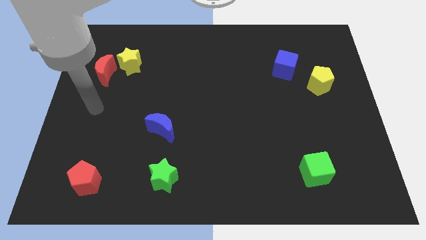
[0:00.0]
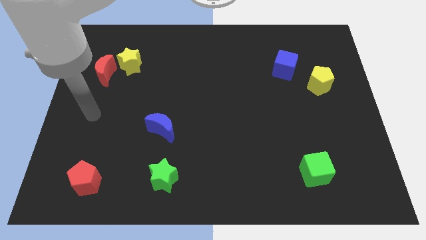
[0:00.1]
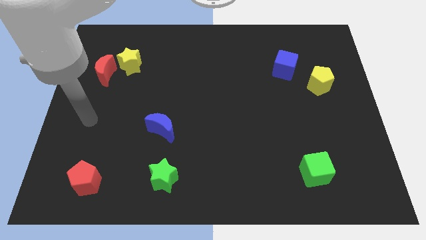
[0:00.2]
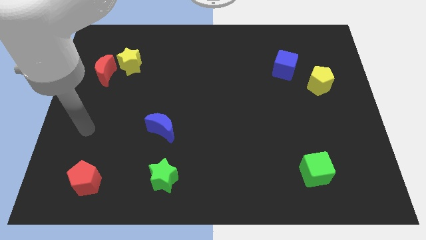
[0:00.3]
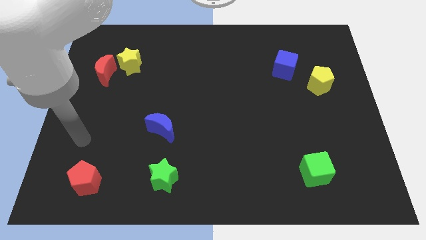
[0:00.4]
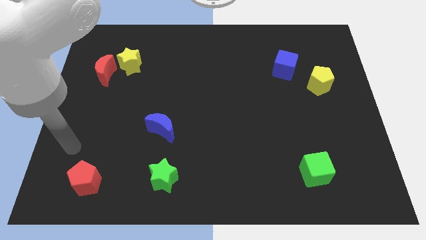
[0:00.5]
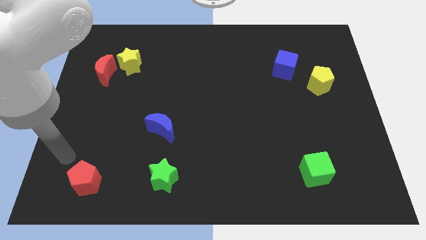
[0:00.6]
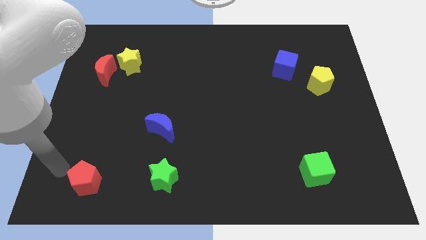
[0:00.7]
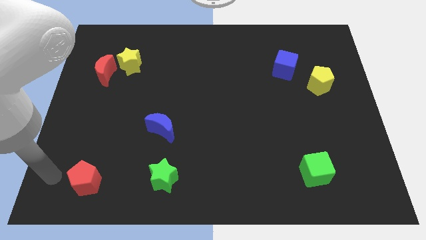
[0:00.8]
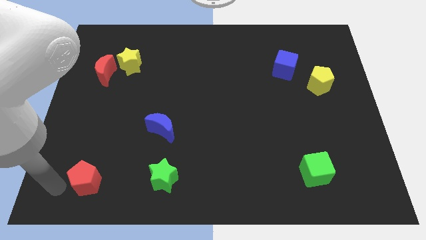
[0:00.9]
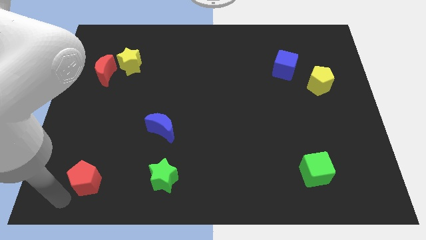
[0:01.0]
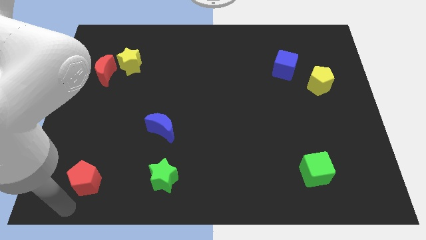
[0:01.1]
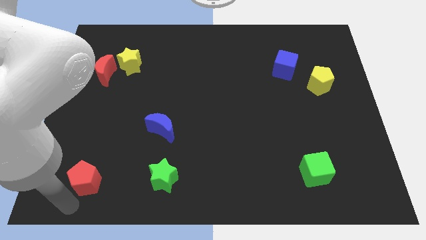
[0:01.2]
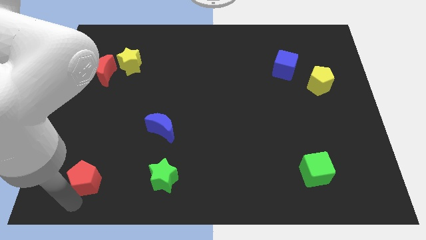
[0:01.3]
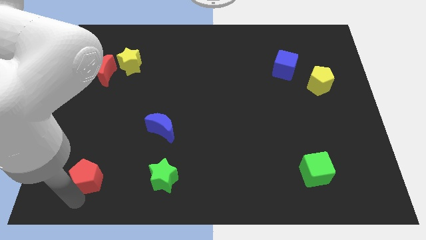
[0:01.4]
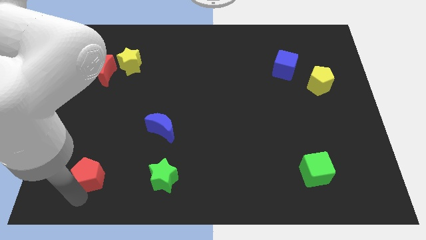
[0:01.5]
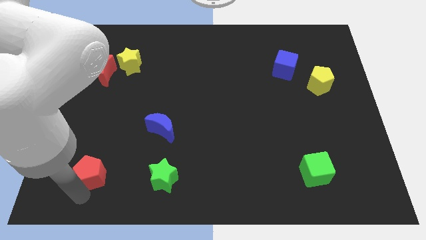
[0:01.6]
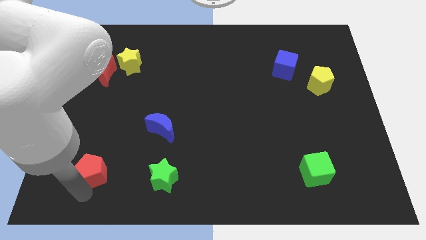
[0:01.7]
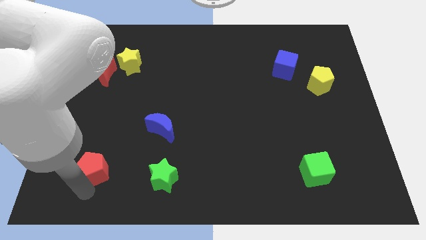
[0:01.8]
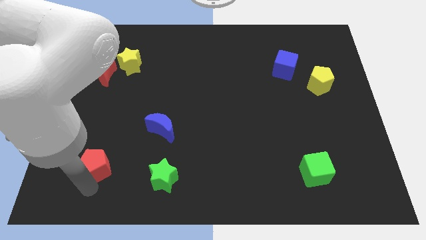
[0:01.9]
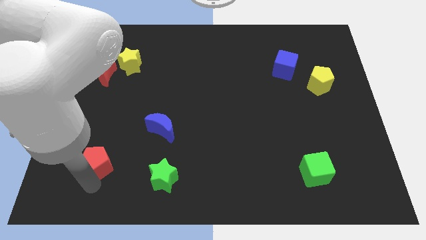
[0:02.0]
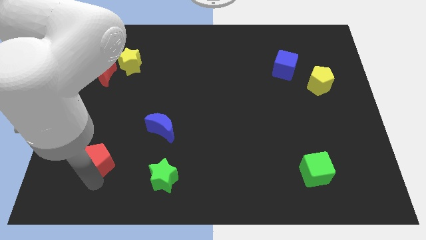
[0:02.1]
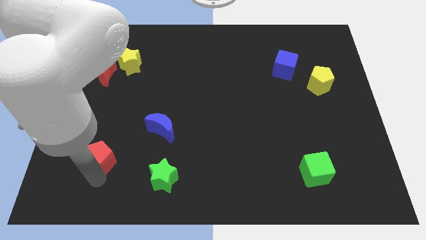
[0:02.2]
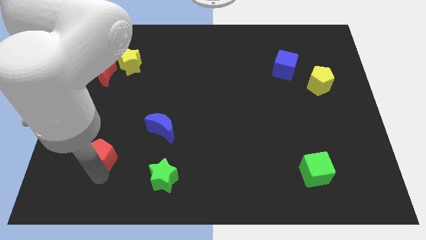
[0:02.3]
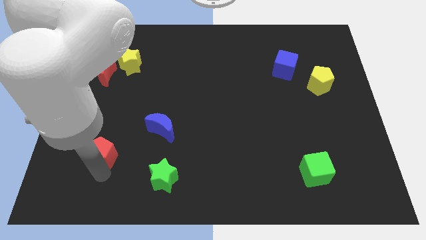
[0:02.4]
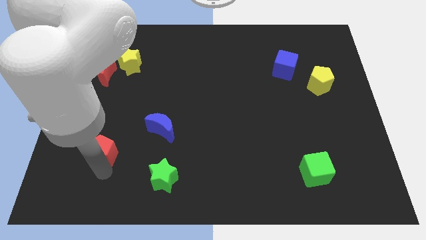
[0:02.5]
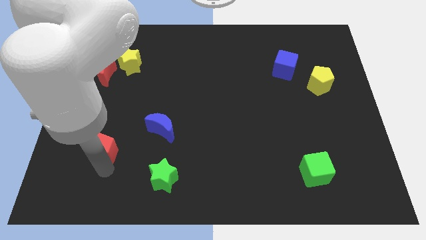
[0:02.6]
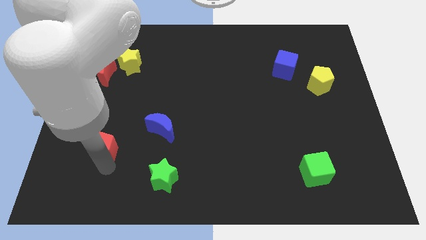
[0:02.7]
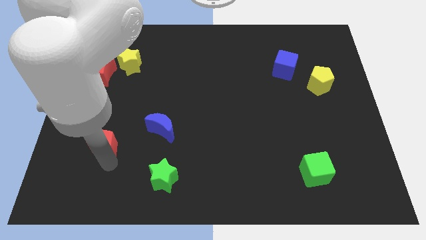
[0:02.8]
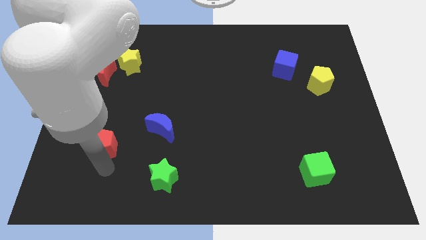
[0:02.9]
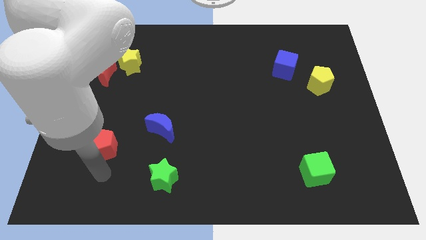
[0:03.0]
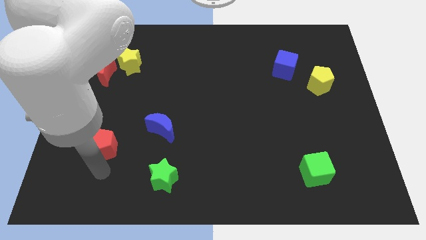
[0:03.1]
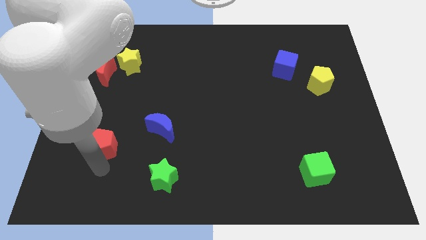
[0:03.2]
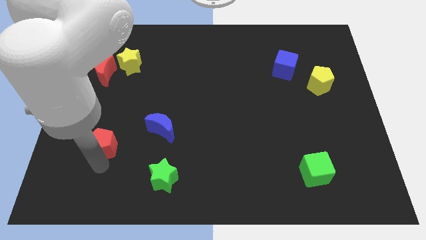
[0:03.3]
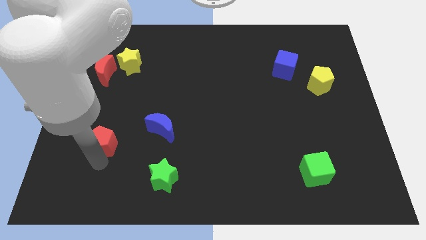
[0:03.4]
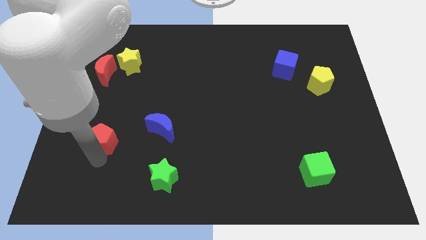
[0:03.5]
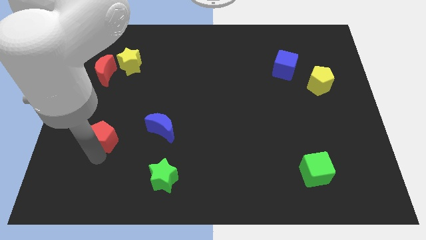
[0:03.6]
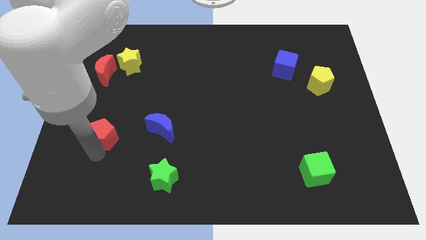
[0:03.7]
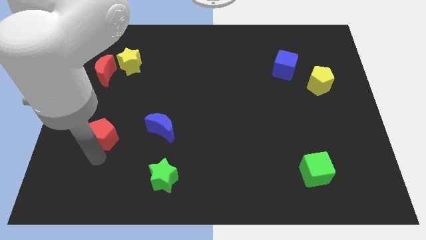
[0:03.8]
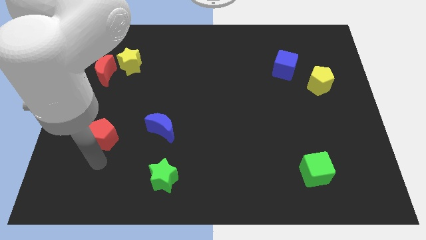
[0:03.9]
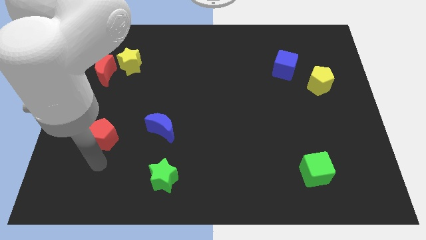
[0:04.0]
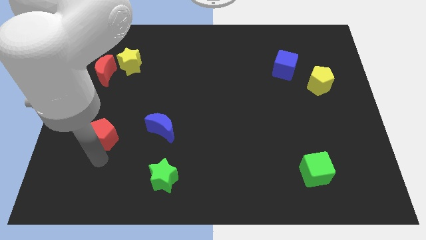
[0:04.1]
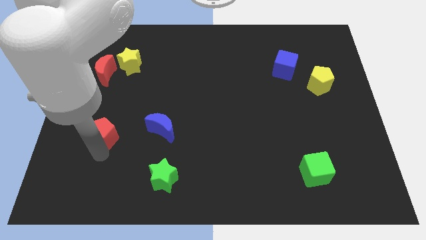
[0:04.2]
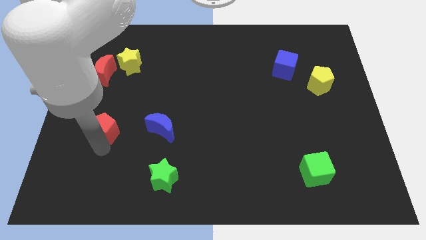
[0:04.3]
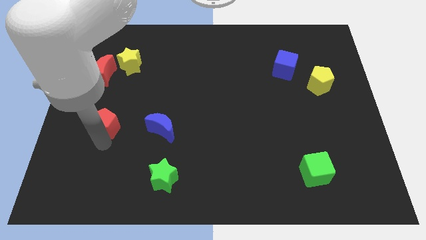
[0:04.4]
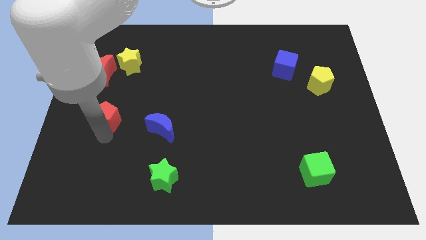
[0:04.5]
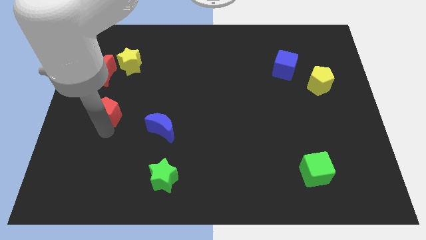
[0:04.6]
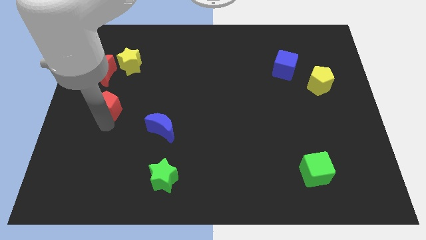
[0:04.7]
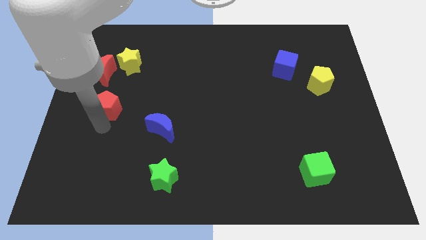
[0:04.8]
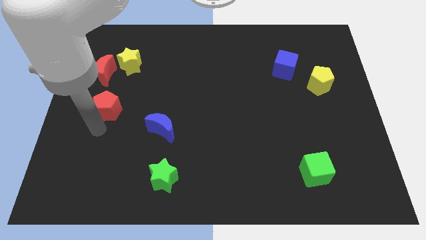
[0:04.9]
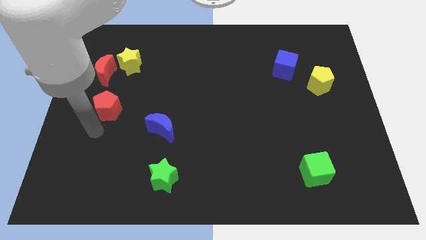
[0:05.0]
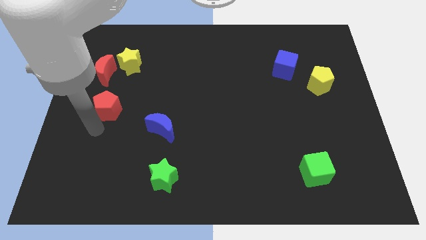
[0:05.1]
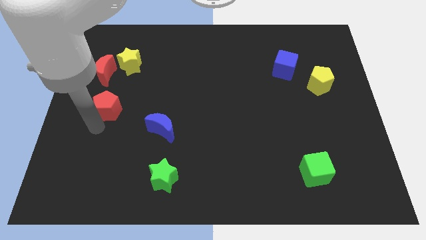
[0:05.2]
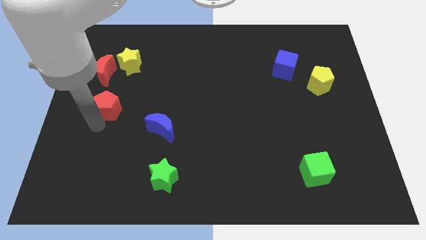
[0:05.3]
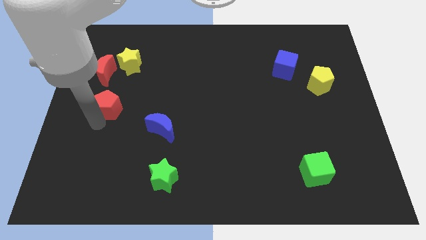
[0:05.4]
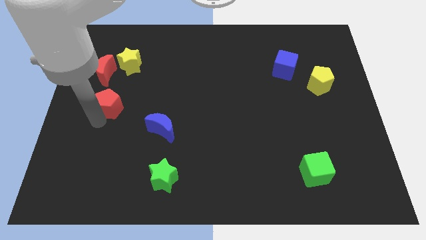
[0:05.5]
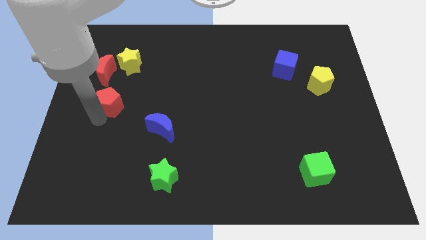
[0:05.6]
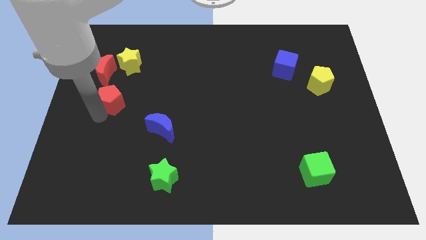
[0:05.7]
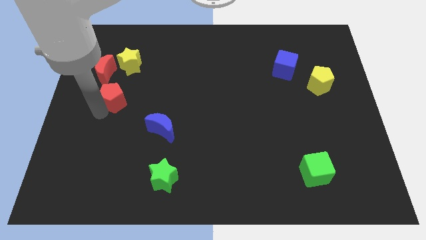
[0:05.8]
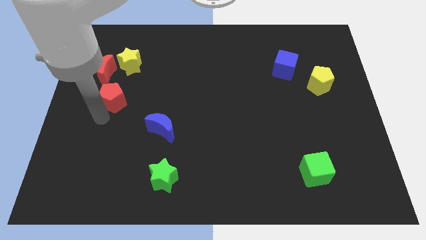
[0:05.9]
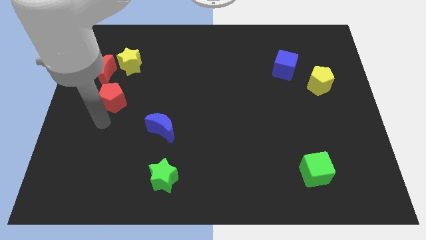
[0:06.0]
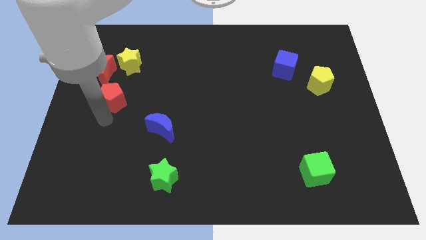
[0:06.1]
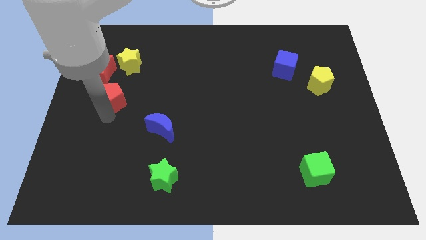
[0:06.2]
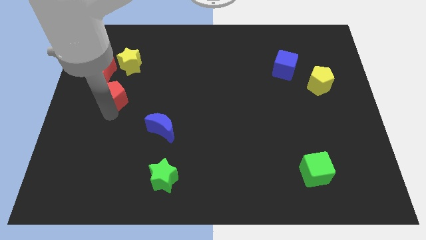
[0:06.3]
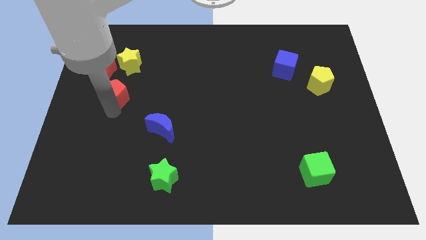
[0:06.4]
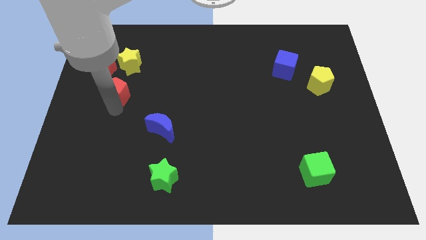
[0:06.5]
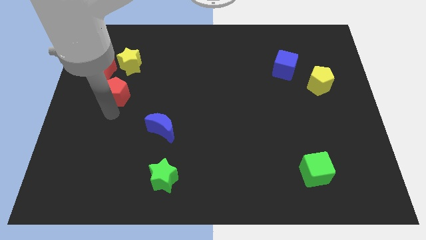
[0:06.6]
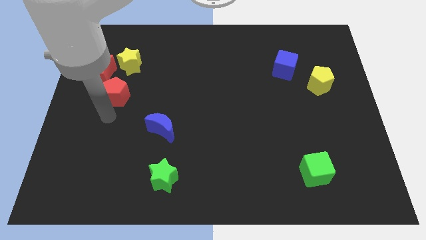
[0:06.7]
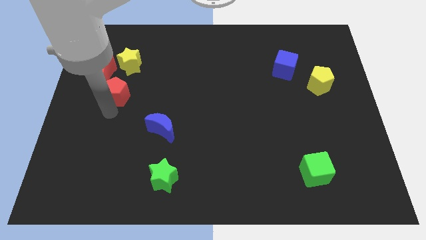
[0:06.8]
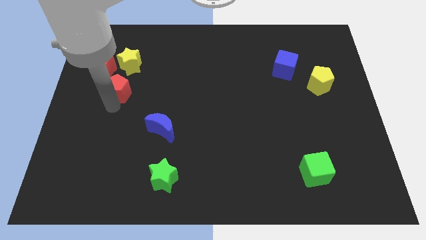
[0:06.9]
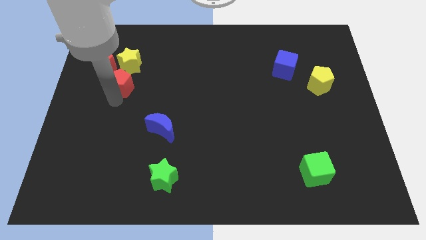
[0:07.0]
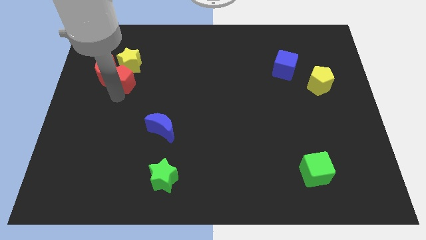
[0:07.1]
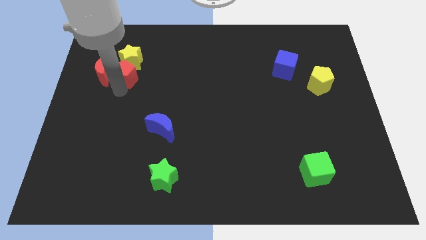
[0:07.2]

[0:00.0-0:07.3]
move the red pentagon to the yellow star
